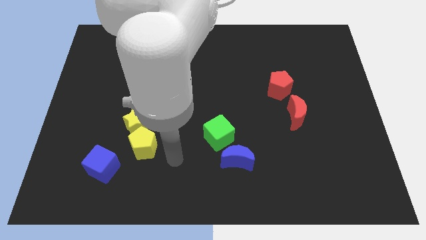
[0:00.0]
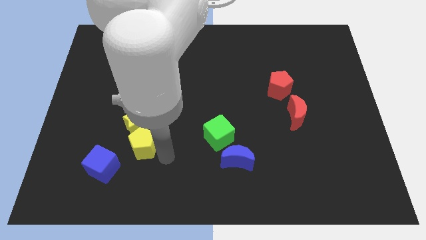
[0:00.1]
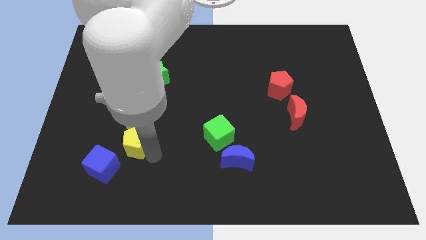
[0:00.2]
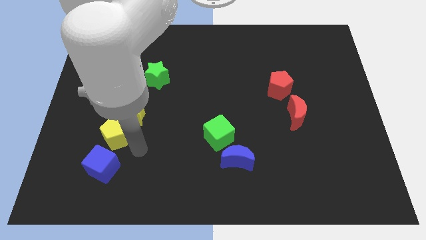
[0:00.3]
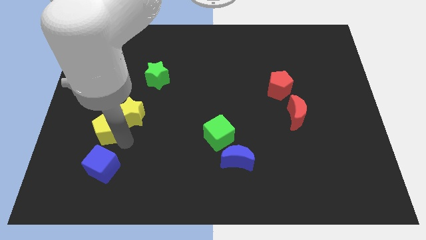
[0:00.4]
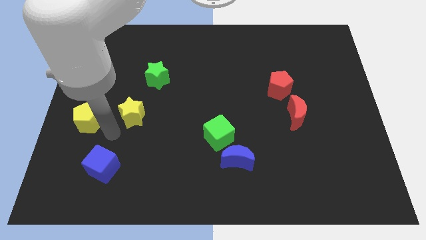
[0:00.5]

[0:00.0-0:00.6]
move the yellow star away from the yellow pentagon

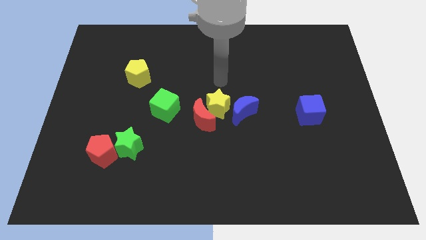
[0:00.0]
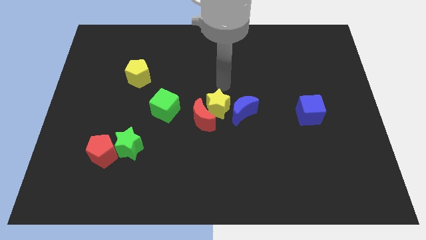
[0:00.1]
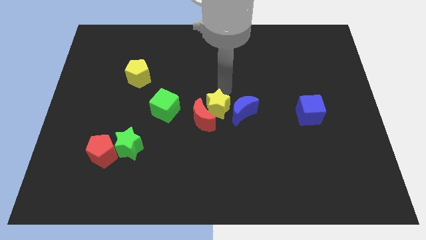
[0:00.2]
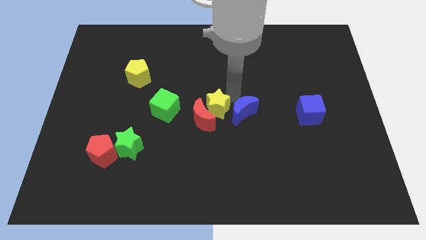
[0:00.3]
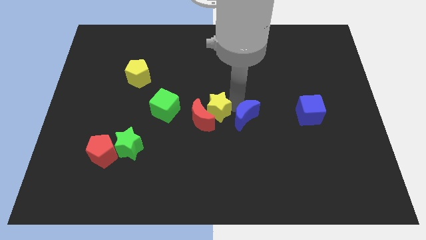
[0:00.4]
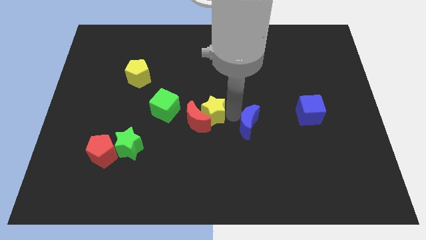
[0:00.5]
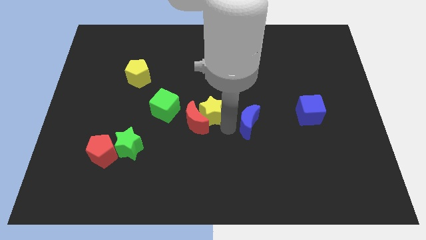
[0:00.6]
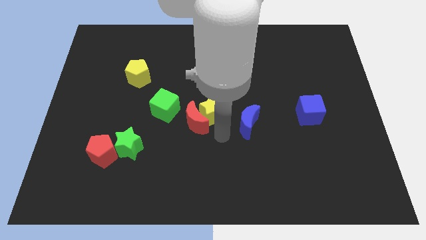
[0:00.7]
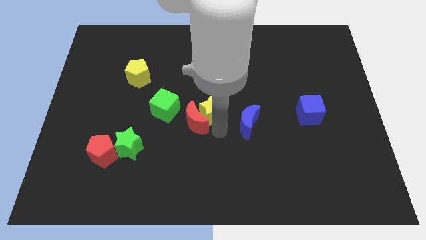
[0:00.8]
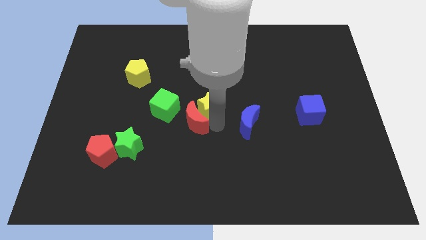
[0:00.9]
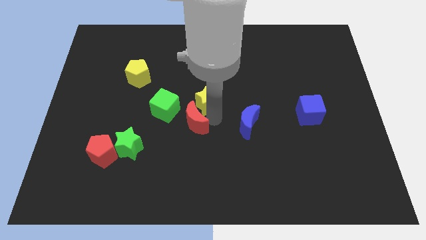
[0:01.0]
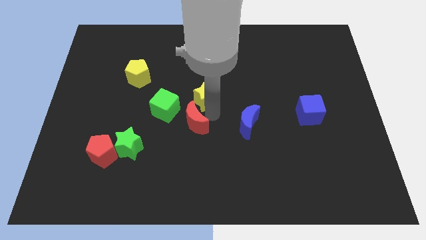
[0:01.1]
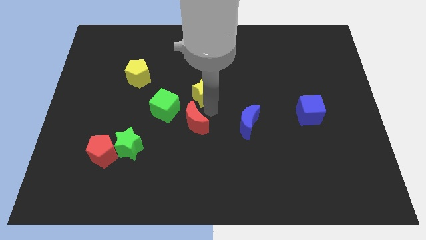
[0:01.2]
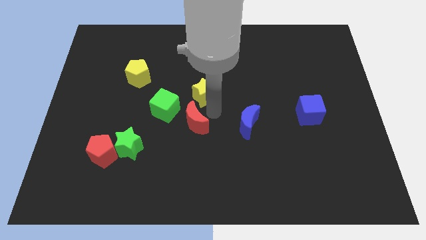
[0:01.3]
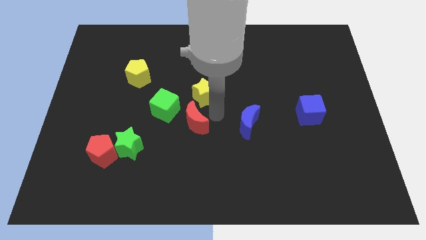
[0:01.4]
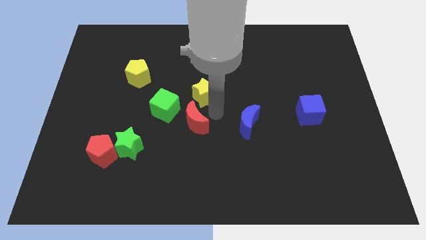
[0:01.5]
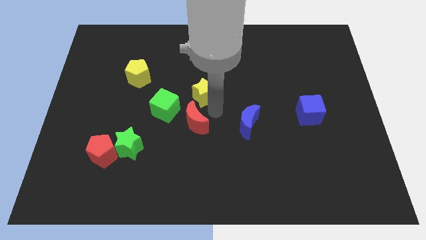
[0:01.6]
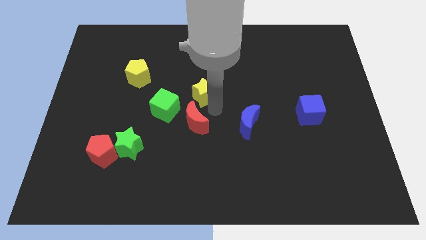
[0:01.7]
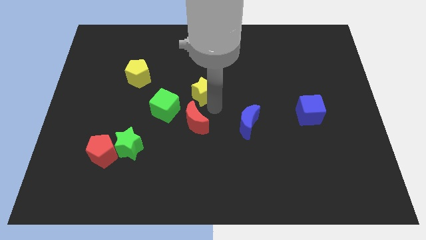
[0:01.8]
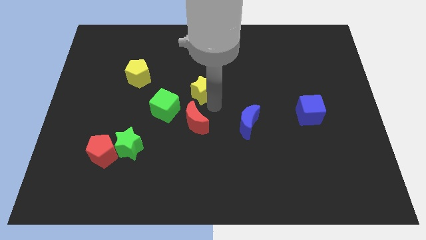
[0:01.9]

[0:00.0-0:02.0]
pull the yellow star apart from the red moon and blue moon

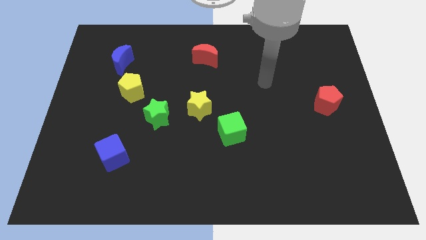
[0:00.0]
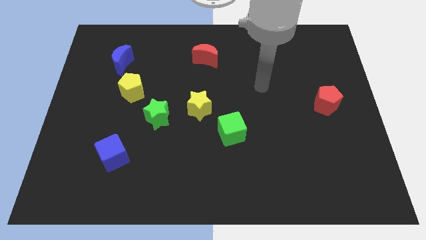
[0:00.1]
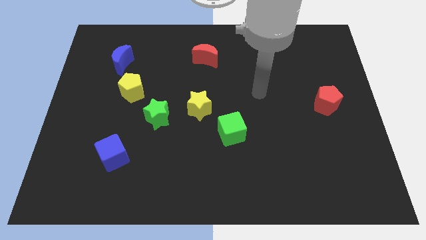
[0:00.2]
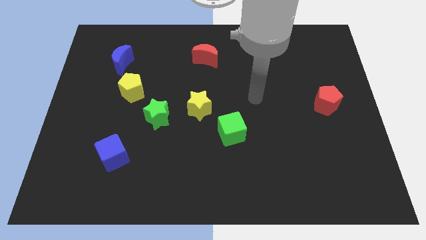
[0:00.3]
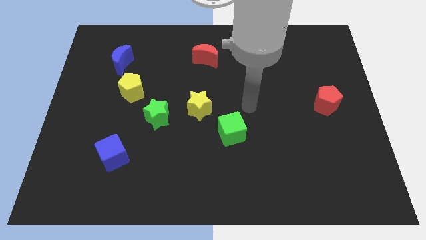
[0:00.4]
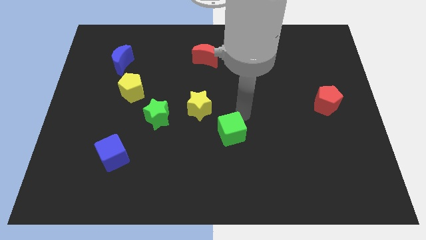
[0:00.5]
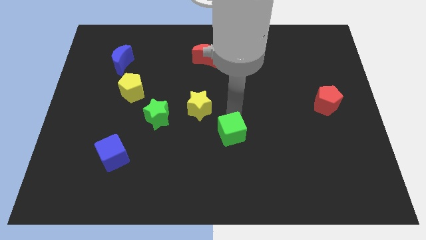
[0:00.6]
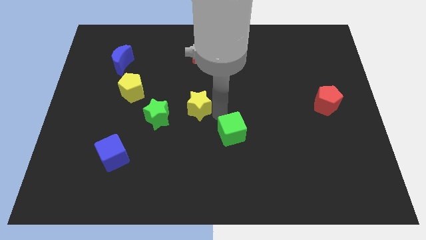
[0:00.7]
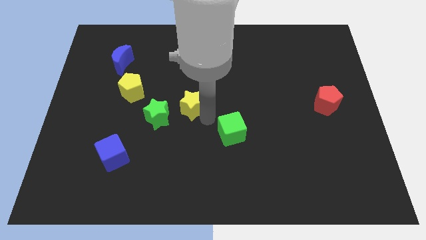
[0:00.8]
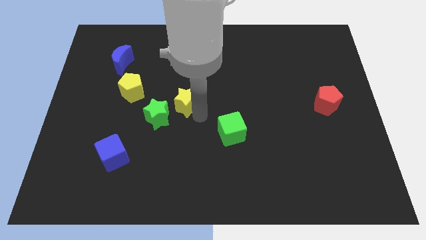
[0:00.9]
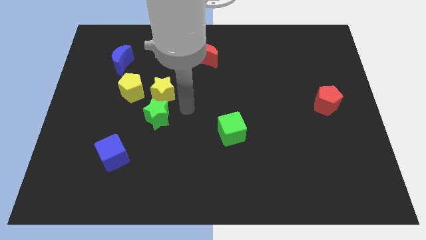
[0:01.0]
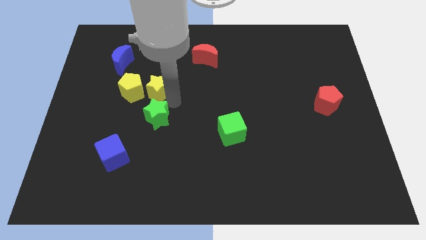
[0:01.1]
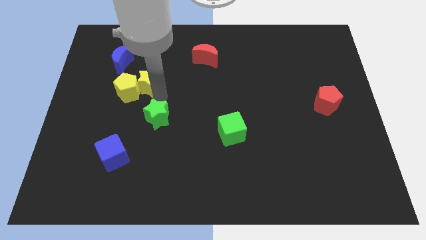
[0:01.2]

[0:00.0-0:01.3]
move the green star away from the yellow star

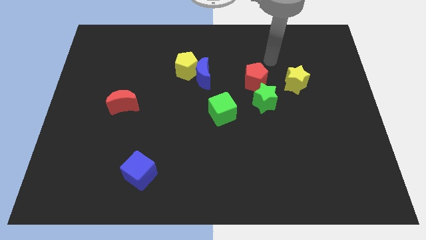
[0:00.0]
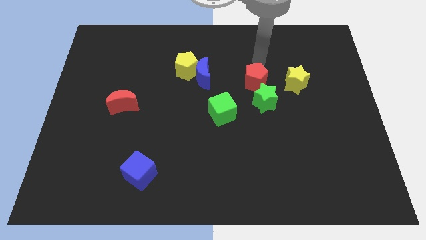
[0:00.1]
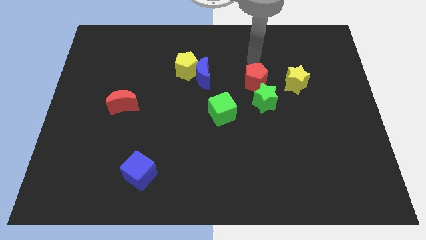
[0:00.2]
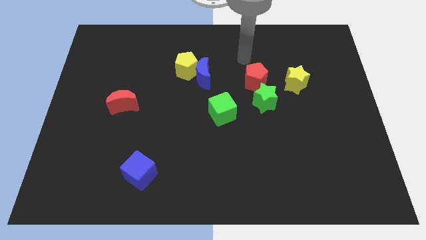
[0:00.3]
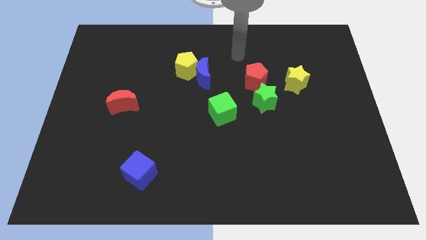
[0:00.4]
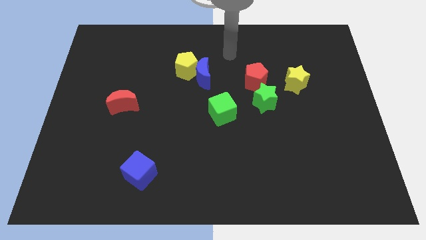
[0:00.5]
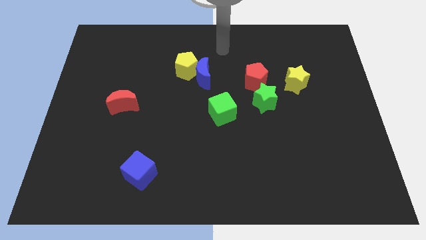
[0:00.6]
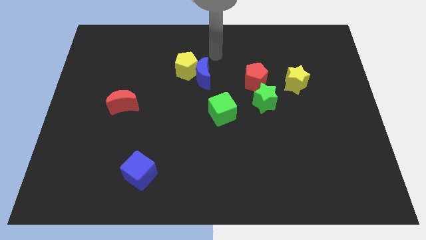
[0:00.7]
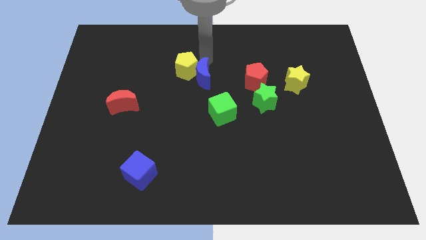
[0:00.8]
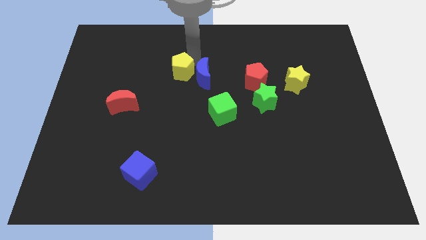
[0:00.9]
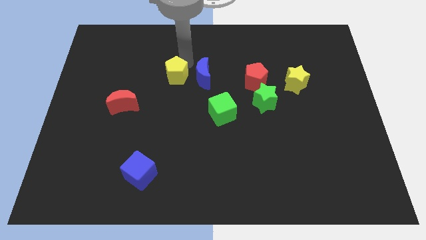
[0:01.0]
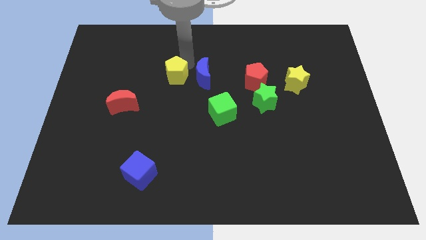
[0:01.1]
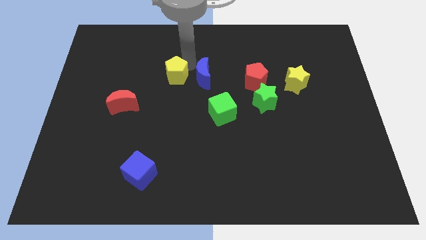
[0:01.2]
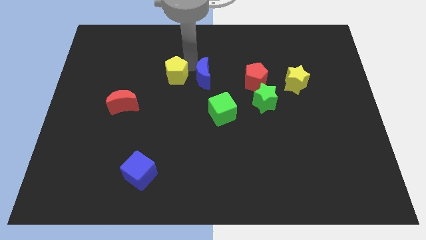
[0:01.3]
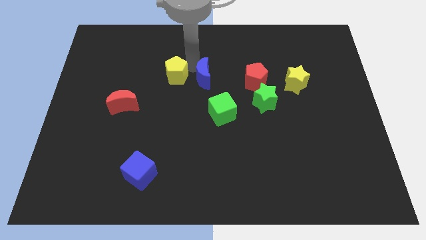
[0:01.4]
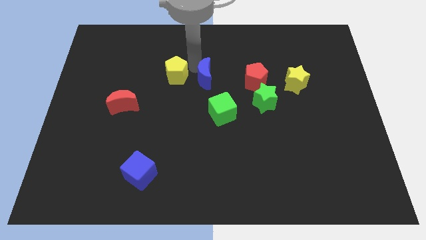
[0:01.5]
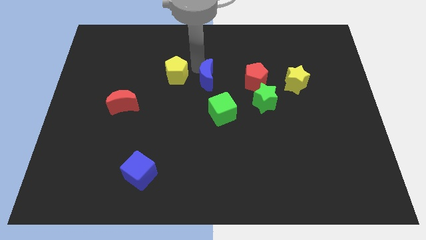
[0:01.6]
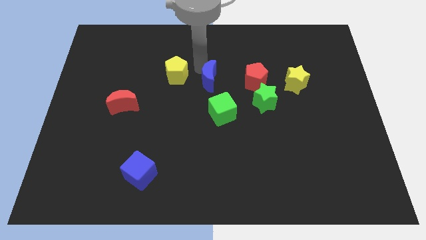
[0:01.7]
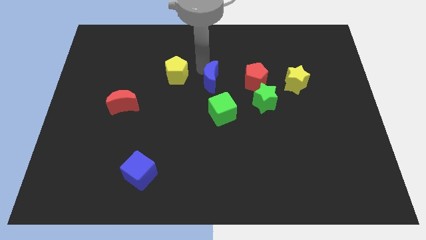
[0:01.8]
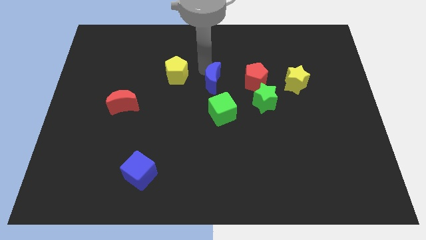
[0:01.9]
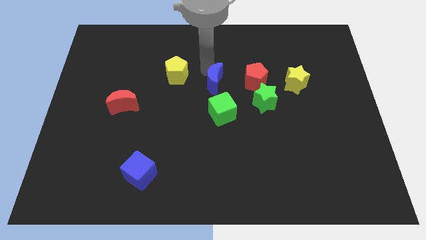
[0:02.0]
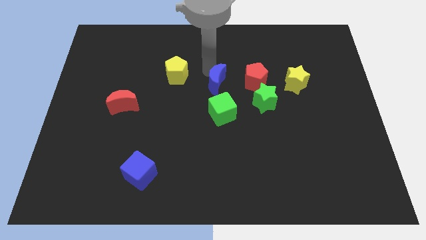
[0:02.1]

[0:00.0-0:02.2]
pull the blue moon apart from the yellow pentagon

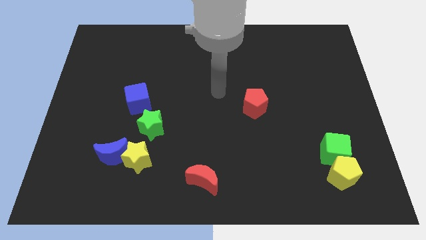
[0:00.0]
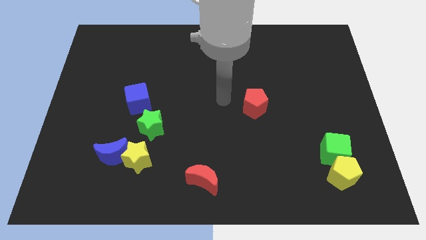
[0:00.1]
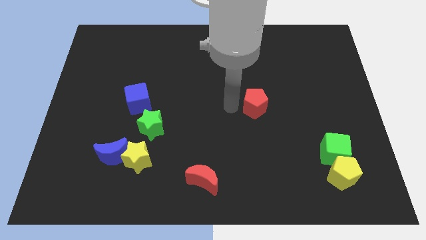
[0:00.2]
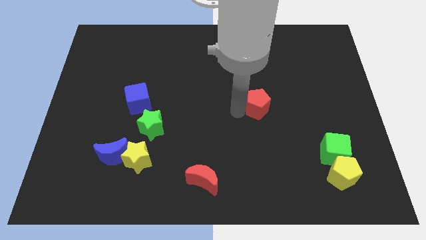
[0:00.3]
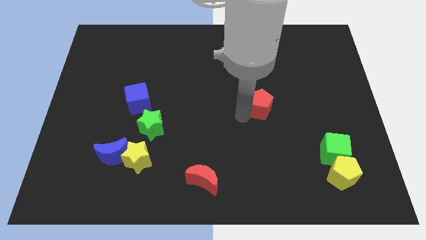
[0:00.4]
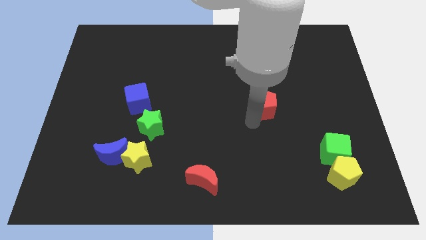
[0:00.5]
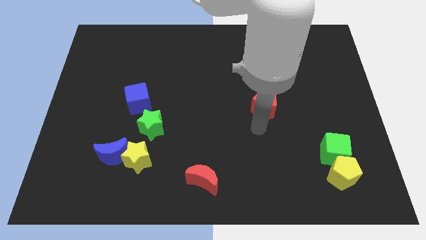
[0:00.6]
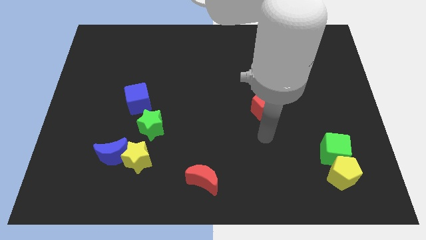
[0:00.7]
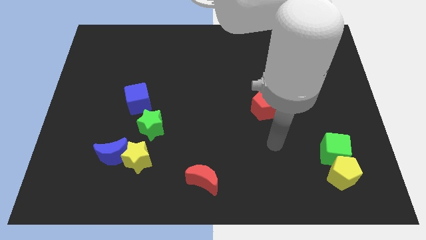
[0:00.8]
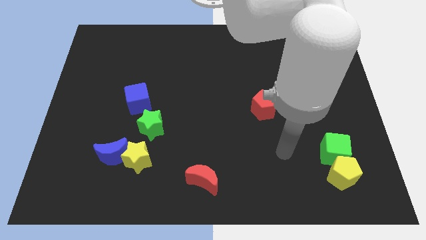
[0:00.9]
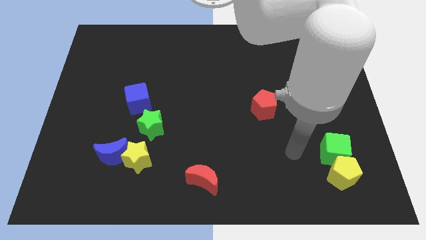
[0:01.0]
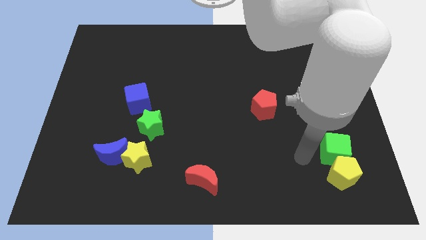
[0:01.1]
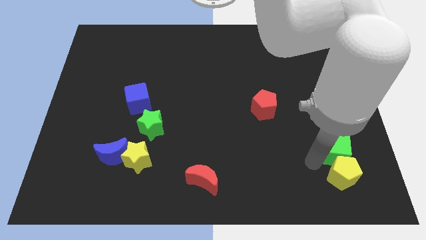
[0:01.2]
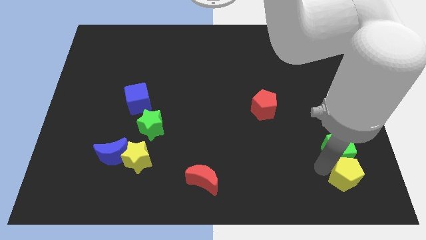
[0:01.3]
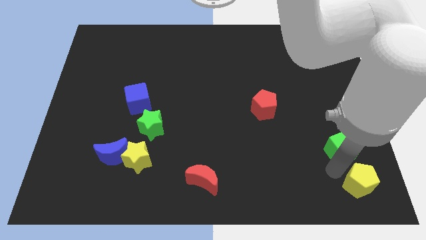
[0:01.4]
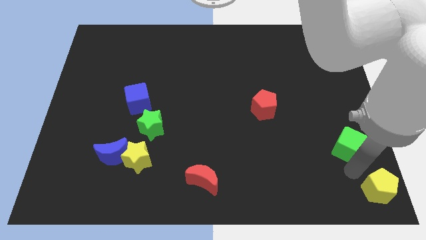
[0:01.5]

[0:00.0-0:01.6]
separate the green cube from the yellow pentagon

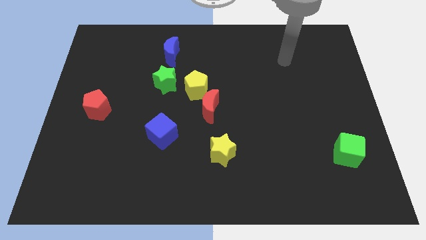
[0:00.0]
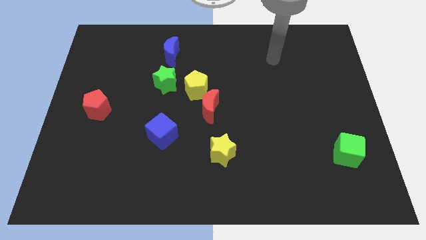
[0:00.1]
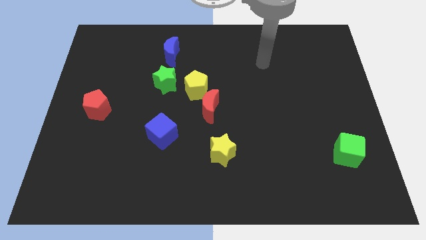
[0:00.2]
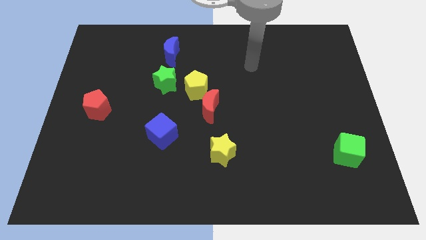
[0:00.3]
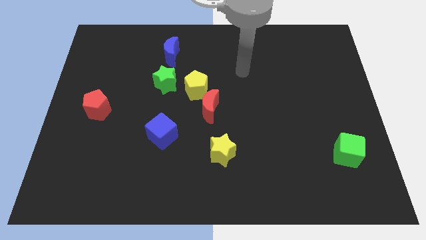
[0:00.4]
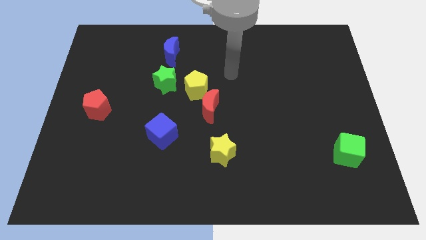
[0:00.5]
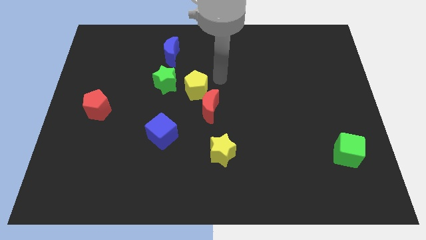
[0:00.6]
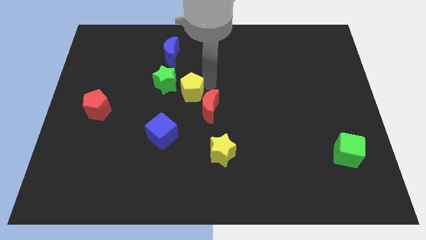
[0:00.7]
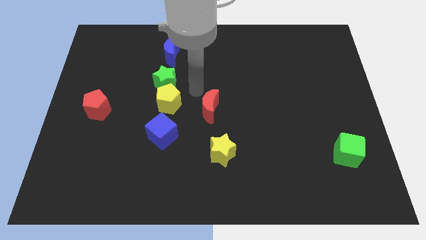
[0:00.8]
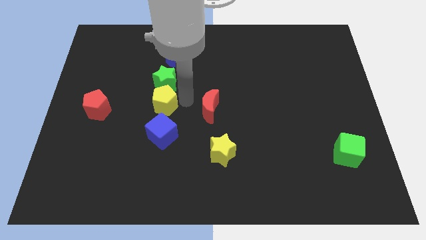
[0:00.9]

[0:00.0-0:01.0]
separate the red moon from the yellow pentagon

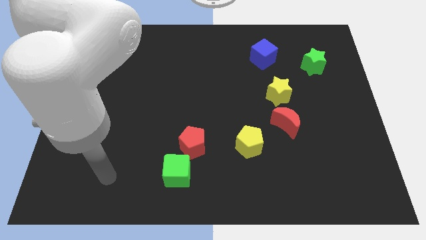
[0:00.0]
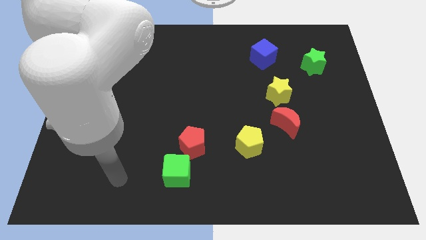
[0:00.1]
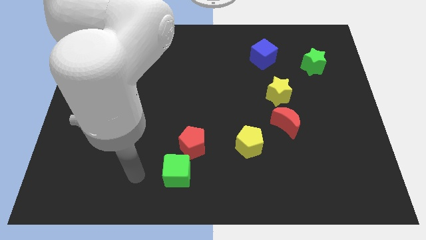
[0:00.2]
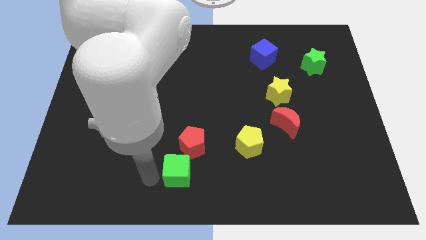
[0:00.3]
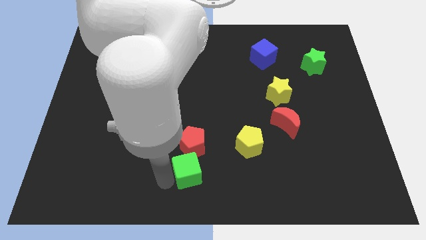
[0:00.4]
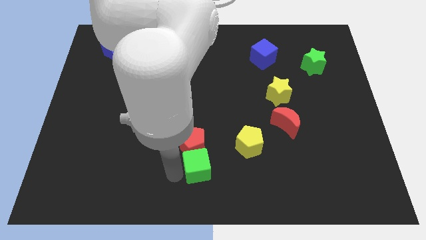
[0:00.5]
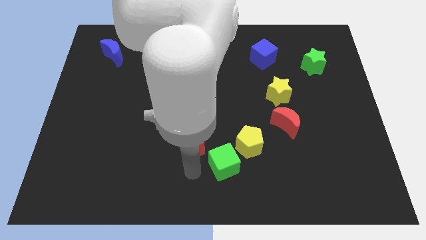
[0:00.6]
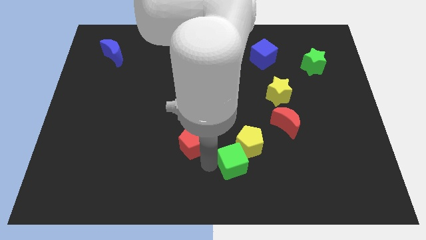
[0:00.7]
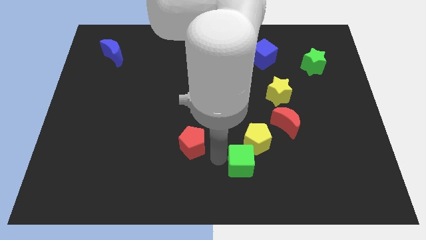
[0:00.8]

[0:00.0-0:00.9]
pull the red pentagon apart from the green cube
